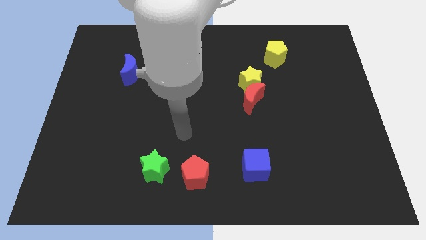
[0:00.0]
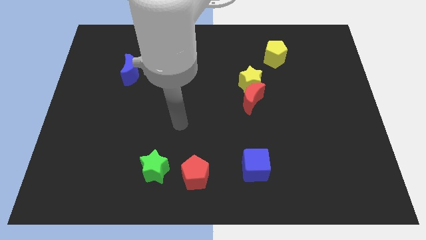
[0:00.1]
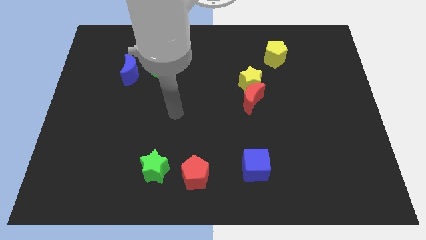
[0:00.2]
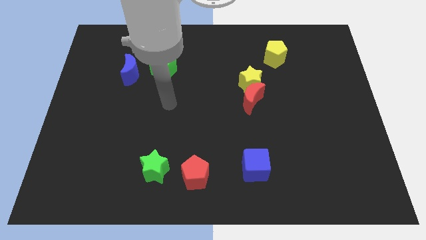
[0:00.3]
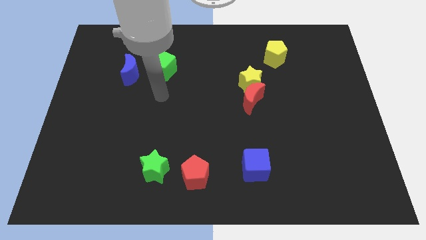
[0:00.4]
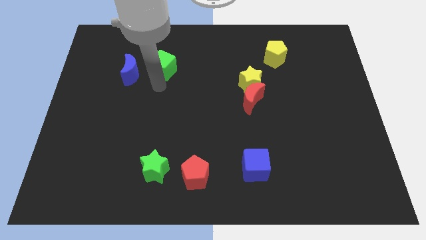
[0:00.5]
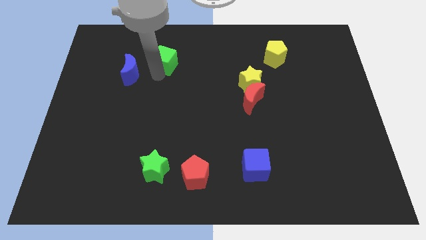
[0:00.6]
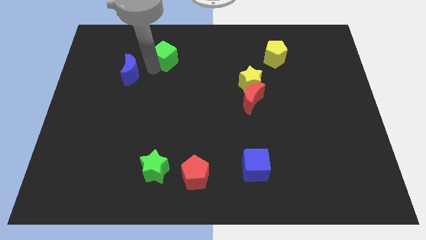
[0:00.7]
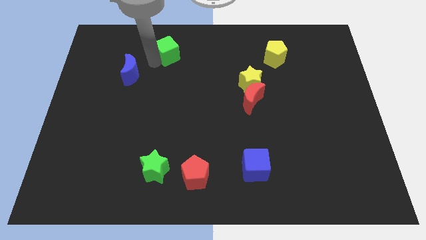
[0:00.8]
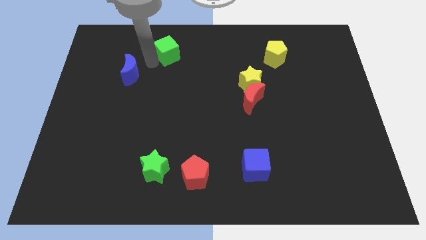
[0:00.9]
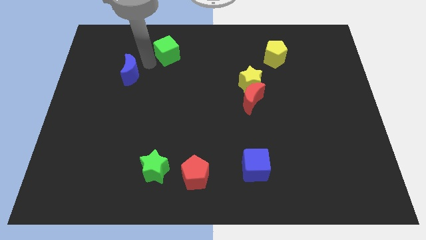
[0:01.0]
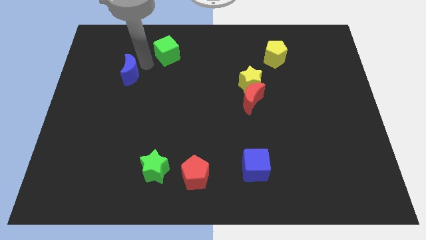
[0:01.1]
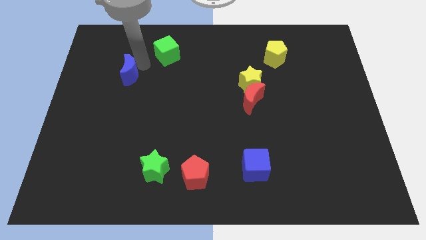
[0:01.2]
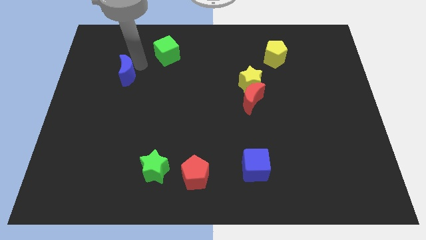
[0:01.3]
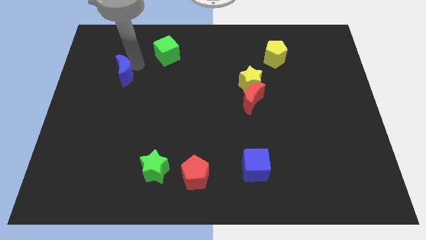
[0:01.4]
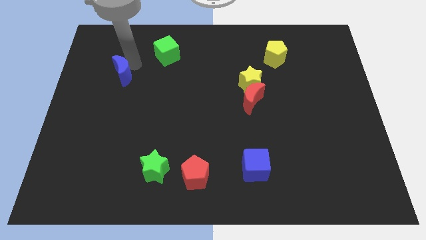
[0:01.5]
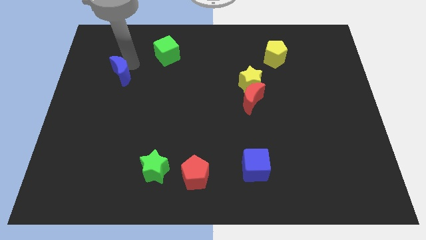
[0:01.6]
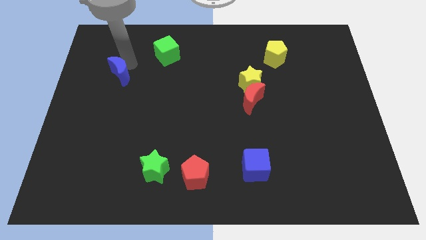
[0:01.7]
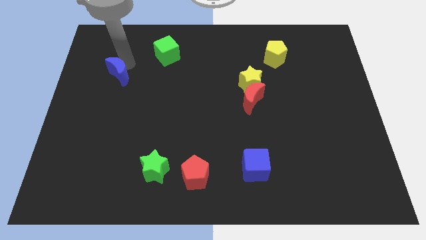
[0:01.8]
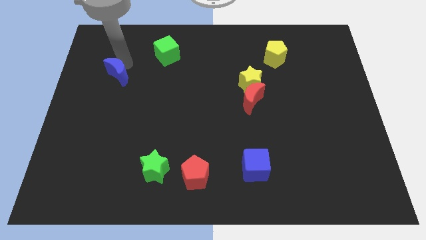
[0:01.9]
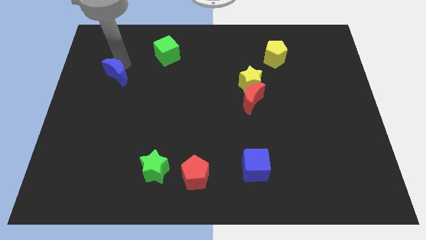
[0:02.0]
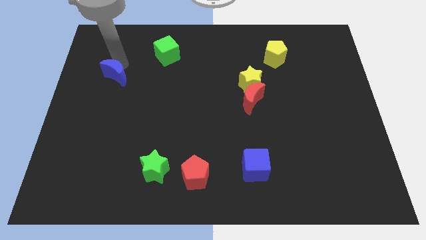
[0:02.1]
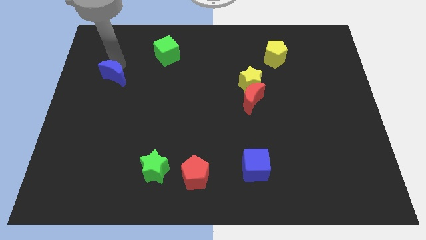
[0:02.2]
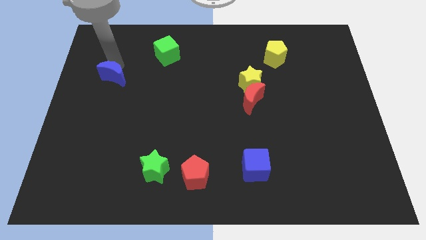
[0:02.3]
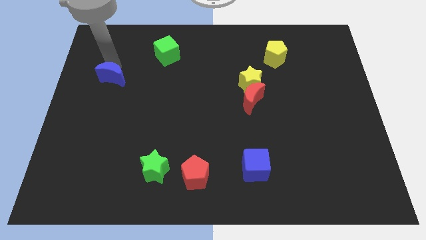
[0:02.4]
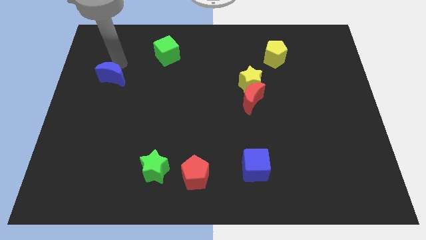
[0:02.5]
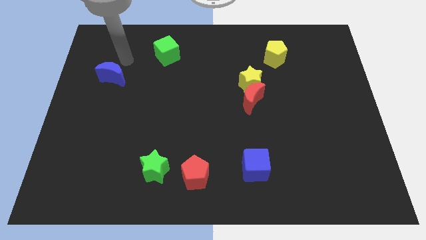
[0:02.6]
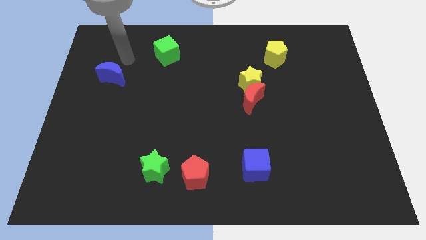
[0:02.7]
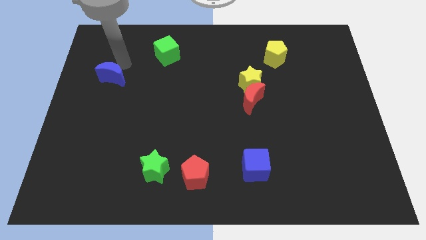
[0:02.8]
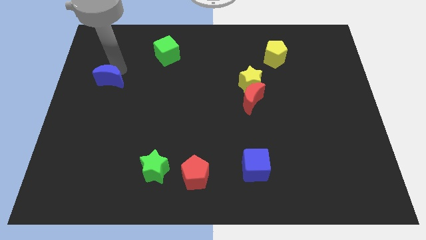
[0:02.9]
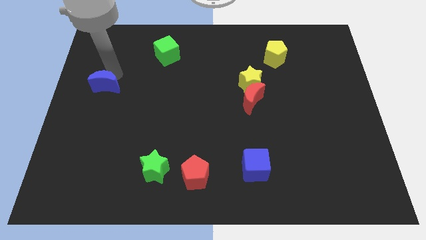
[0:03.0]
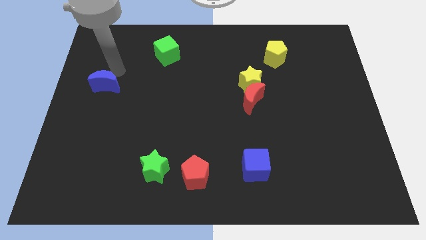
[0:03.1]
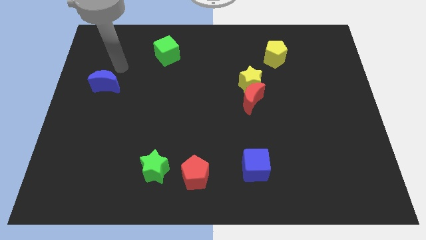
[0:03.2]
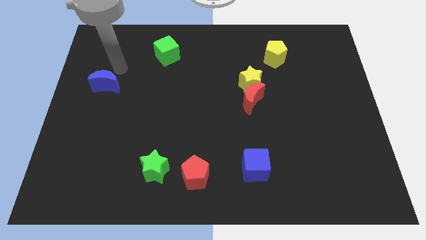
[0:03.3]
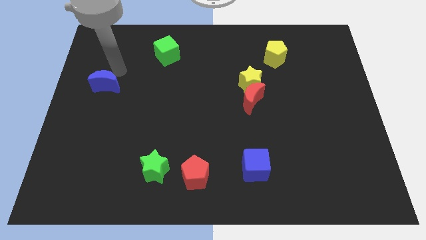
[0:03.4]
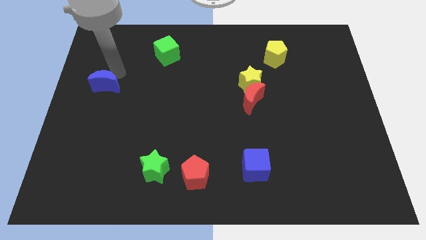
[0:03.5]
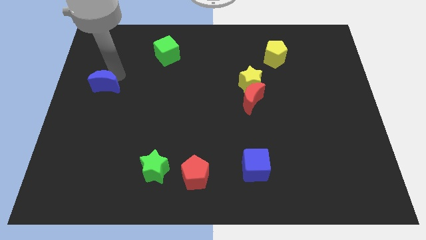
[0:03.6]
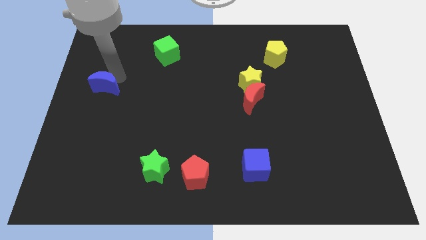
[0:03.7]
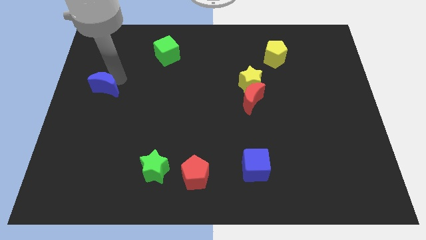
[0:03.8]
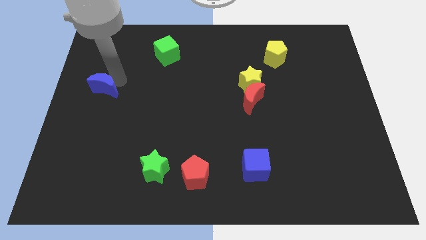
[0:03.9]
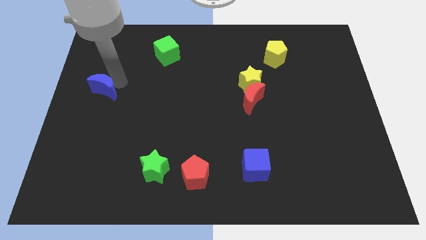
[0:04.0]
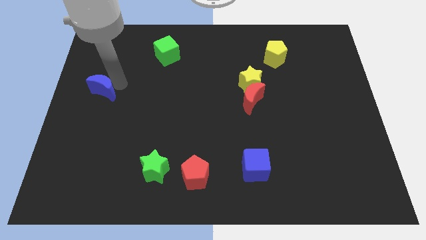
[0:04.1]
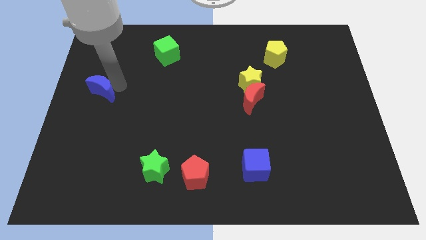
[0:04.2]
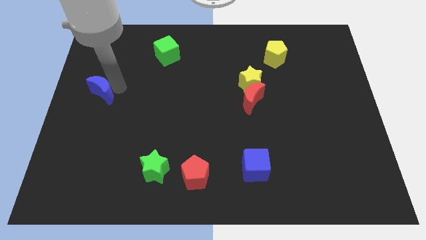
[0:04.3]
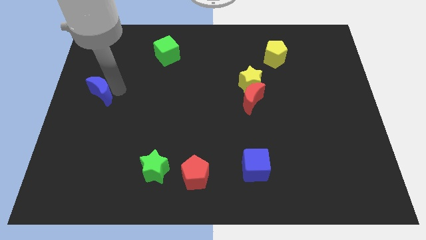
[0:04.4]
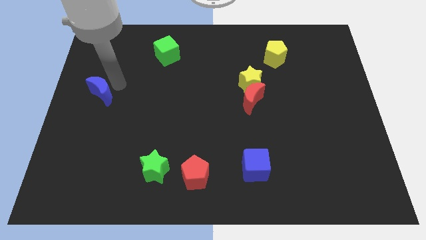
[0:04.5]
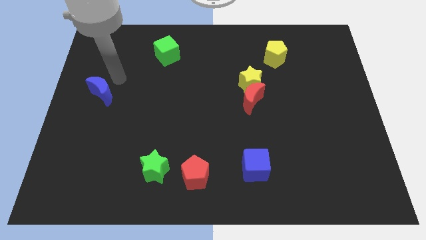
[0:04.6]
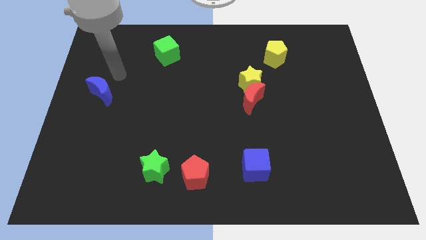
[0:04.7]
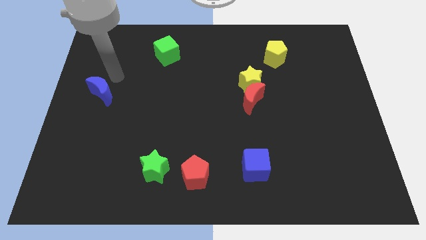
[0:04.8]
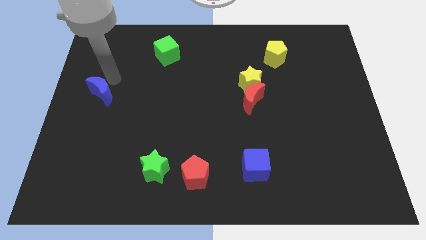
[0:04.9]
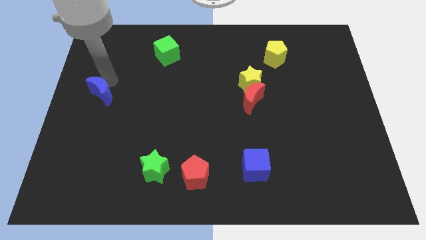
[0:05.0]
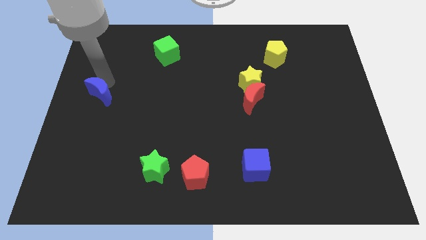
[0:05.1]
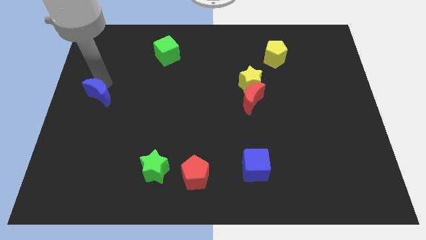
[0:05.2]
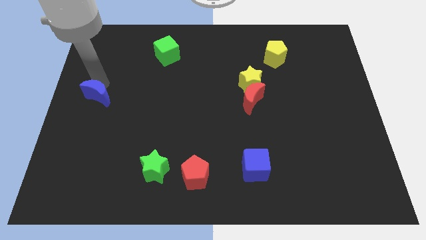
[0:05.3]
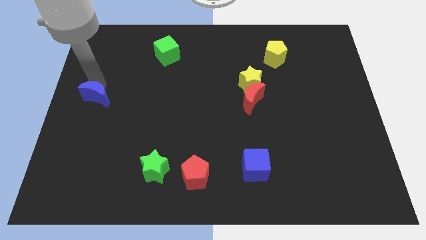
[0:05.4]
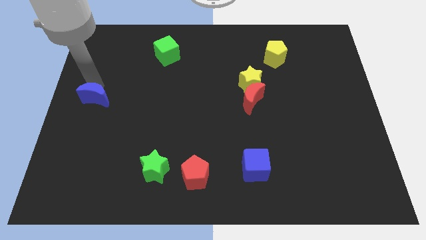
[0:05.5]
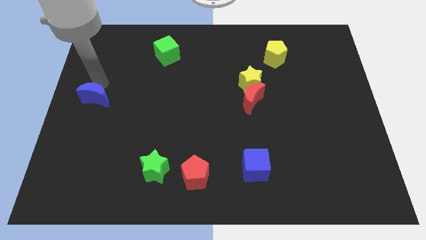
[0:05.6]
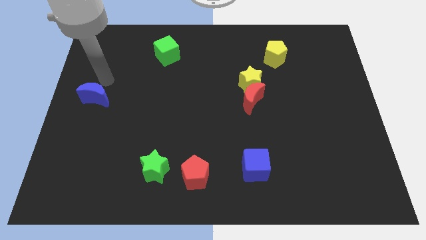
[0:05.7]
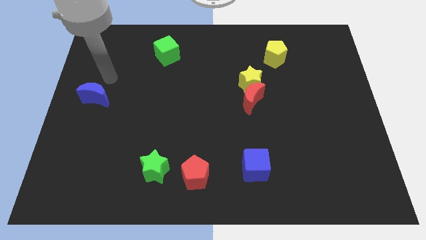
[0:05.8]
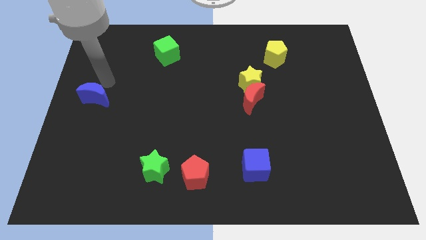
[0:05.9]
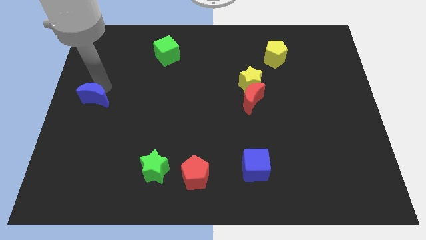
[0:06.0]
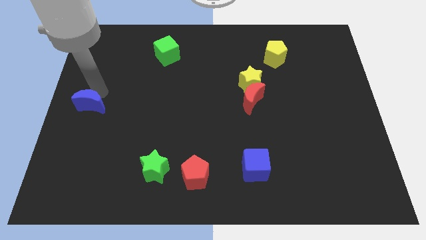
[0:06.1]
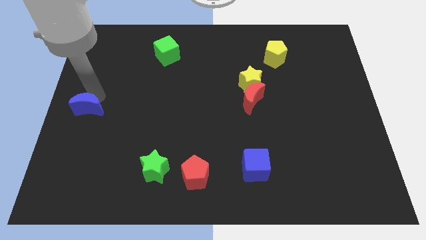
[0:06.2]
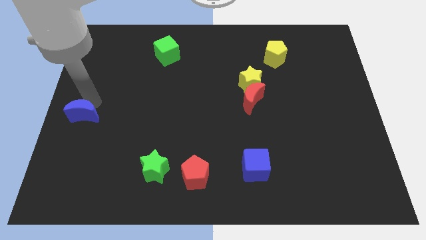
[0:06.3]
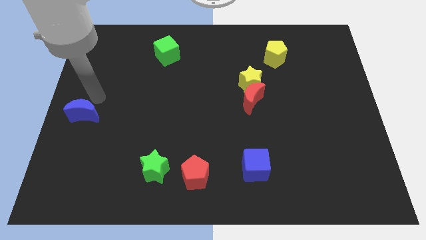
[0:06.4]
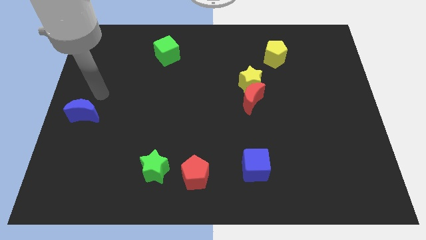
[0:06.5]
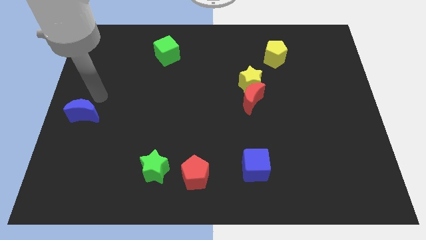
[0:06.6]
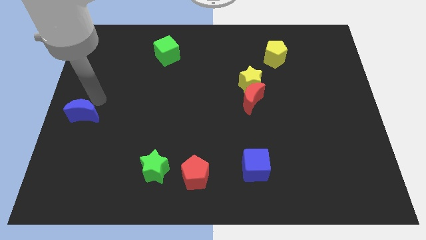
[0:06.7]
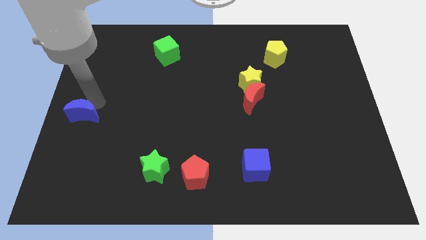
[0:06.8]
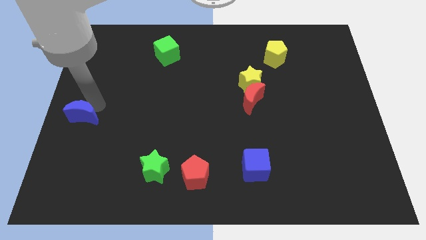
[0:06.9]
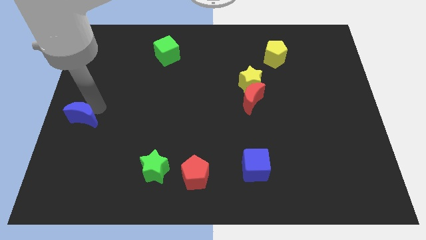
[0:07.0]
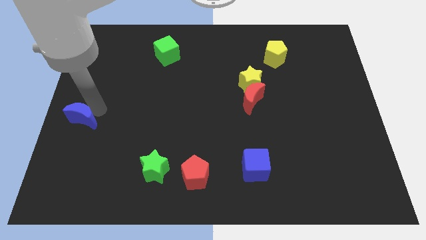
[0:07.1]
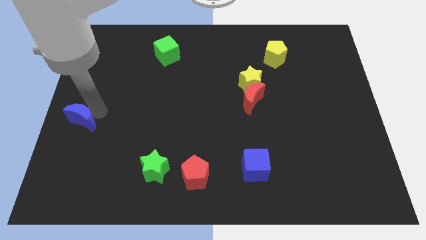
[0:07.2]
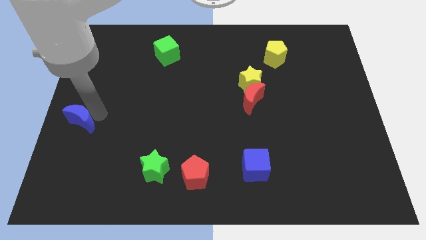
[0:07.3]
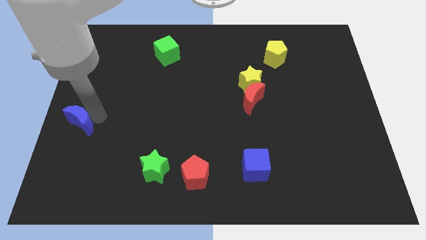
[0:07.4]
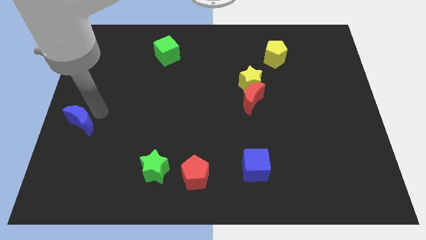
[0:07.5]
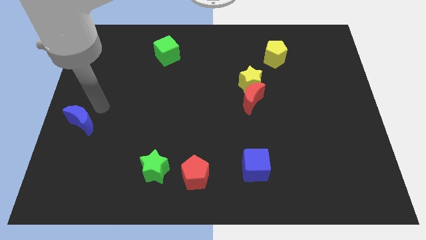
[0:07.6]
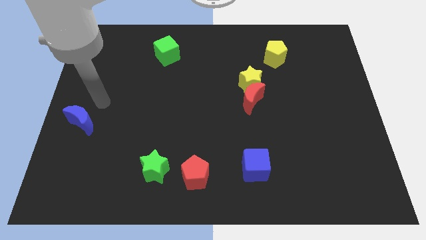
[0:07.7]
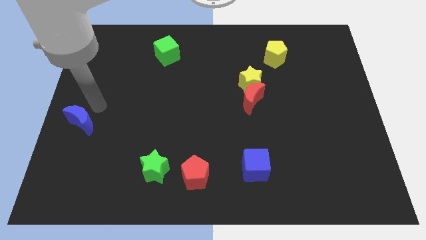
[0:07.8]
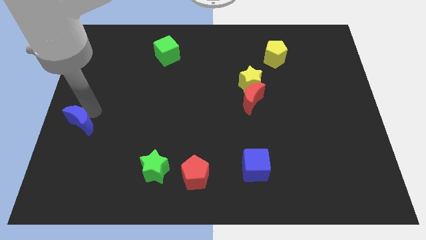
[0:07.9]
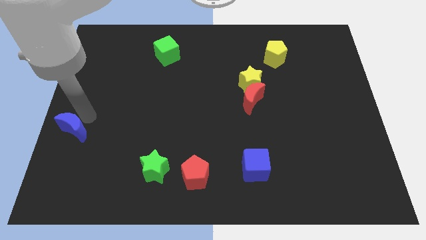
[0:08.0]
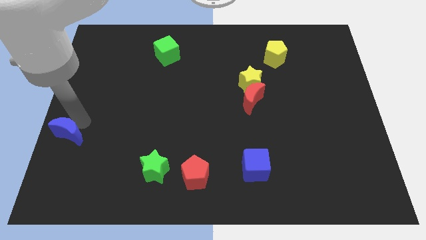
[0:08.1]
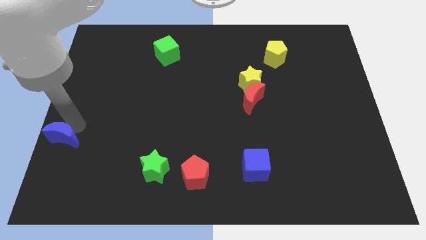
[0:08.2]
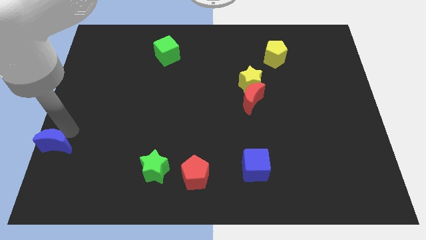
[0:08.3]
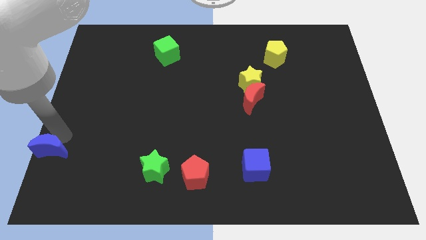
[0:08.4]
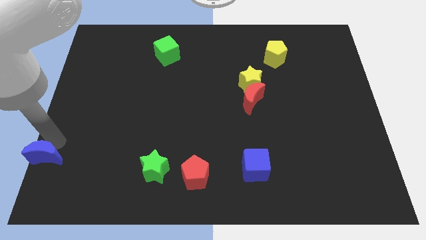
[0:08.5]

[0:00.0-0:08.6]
push the blue moon to the bottom left corner
